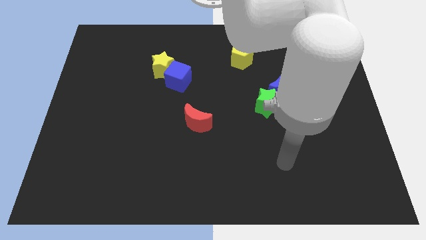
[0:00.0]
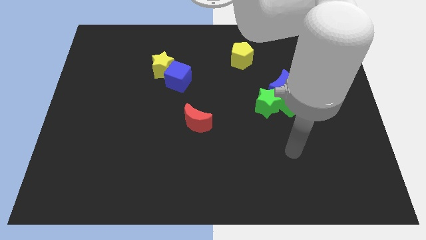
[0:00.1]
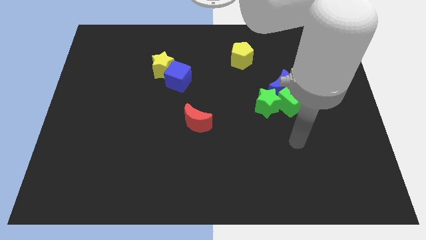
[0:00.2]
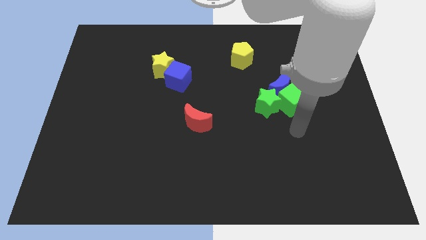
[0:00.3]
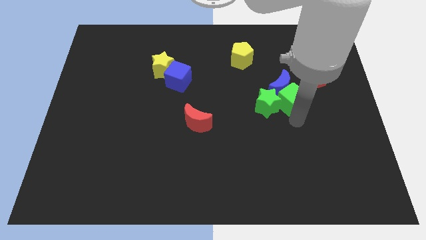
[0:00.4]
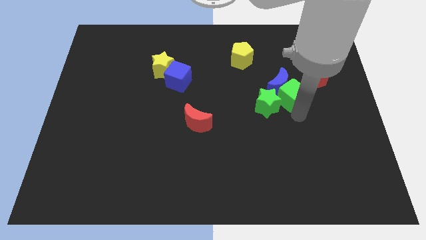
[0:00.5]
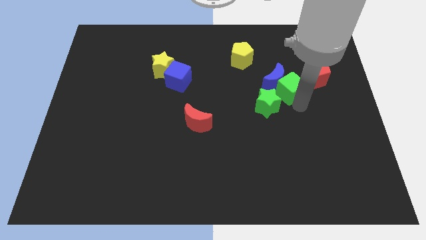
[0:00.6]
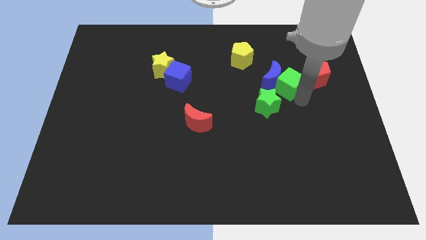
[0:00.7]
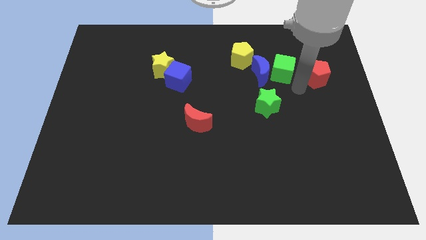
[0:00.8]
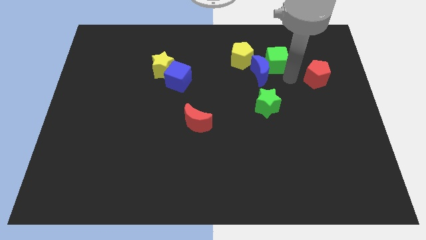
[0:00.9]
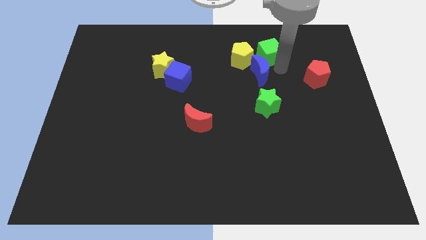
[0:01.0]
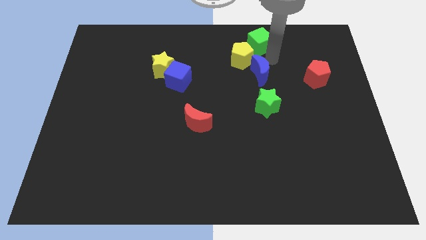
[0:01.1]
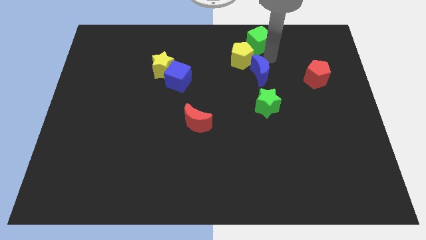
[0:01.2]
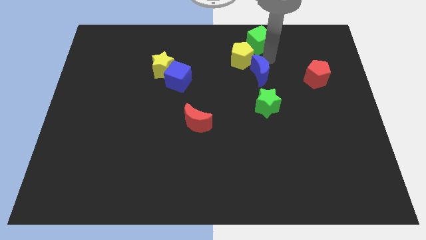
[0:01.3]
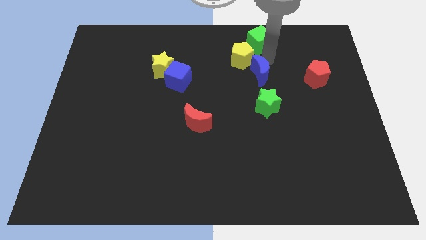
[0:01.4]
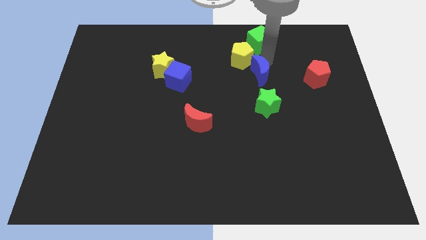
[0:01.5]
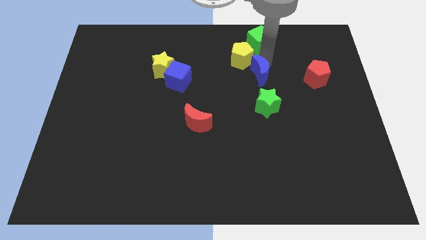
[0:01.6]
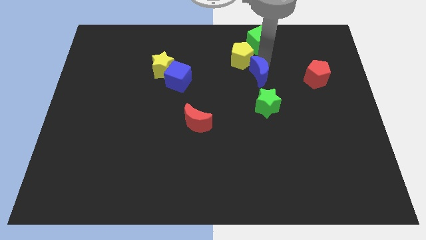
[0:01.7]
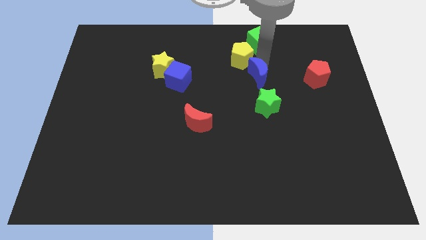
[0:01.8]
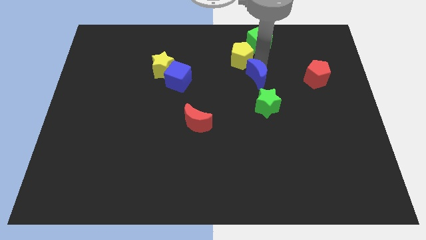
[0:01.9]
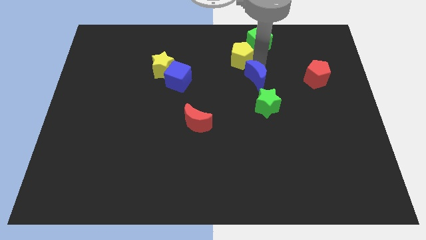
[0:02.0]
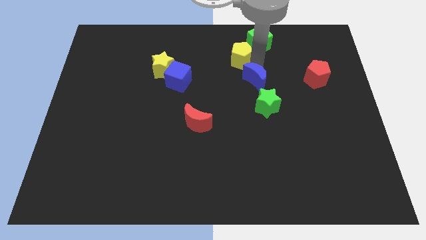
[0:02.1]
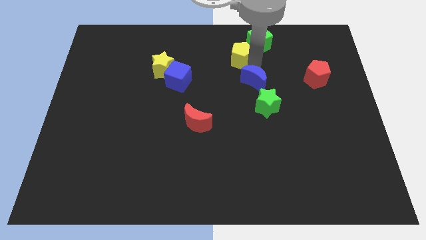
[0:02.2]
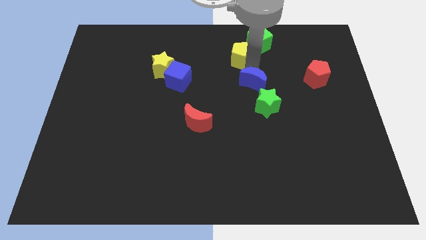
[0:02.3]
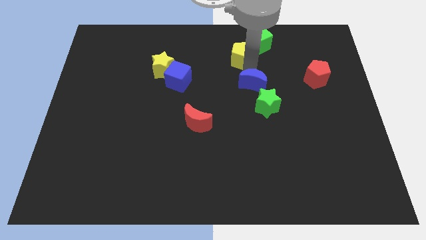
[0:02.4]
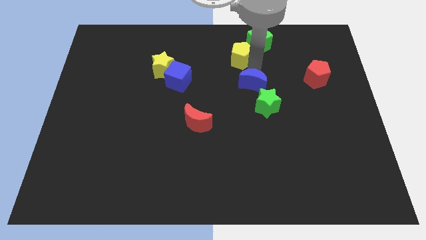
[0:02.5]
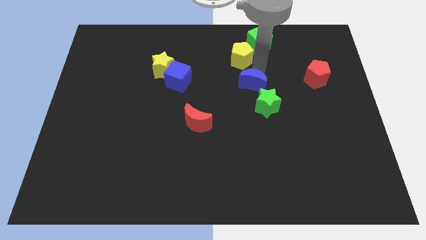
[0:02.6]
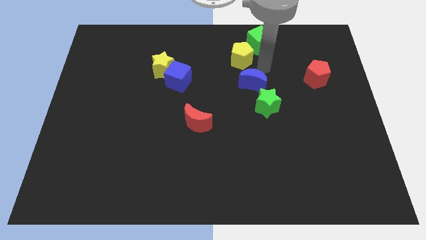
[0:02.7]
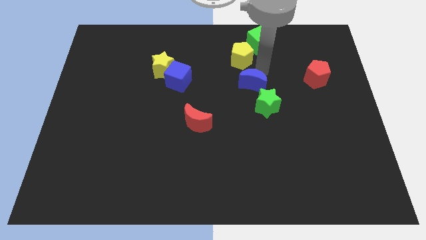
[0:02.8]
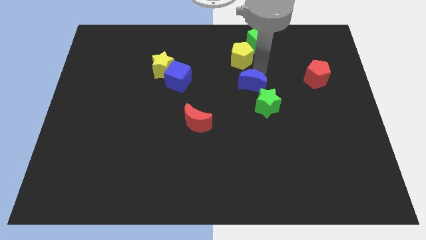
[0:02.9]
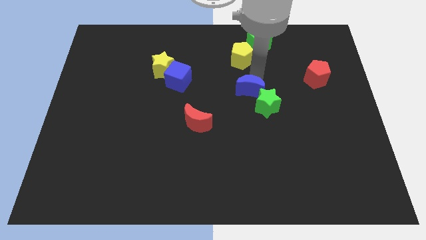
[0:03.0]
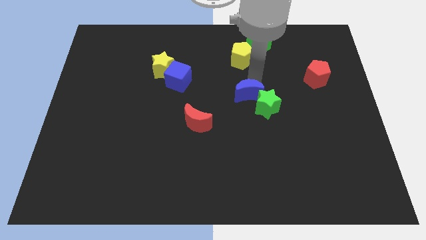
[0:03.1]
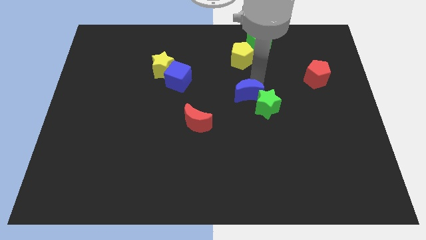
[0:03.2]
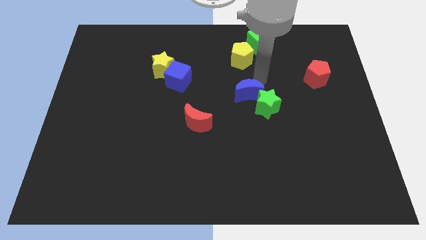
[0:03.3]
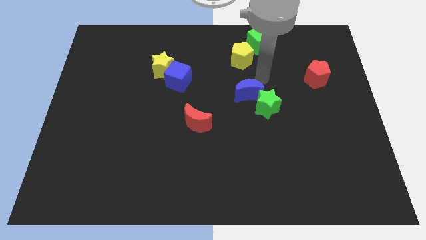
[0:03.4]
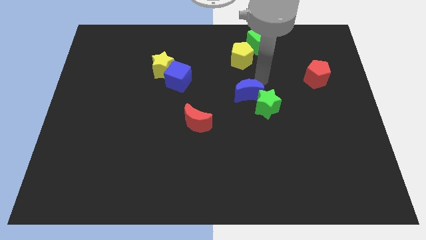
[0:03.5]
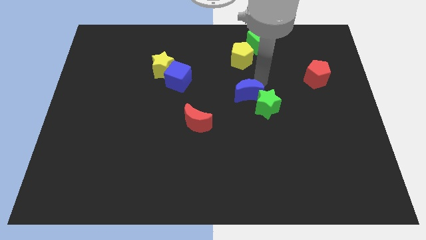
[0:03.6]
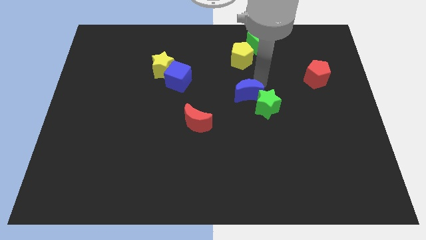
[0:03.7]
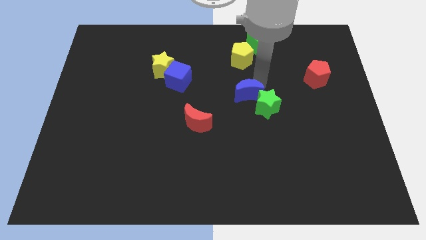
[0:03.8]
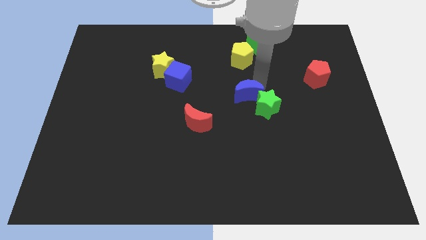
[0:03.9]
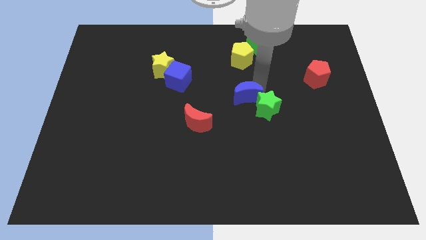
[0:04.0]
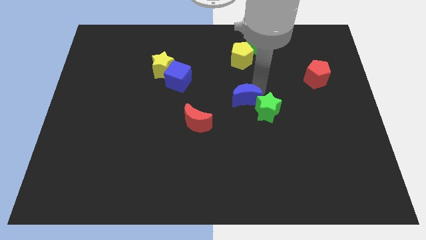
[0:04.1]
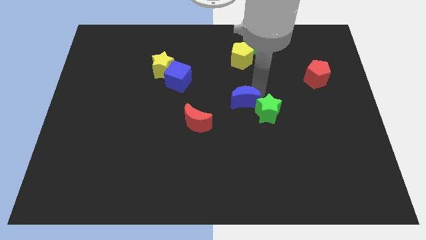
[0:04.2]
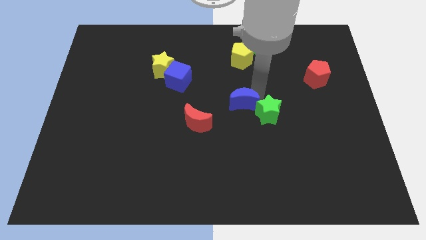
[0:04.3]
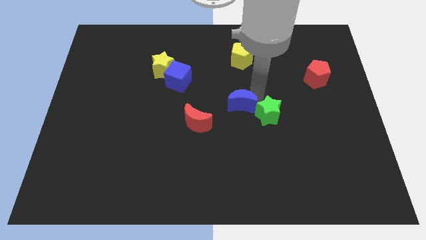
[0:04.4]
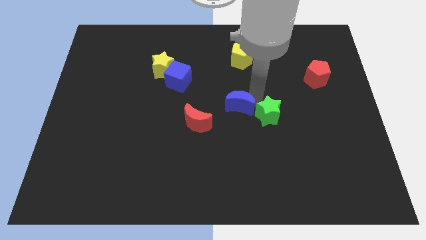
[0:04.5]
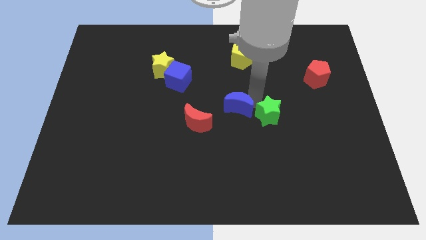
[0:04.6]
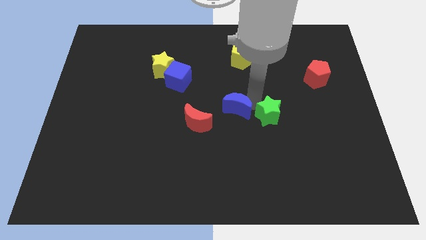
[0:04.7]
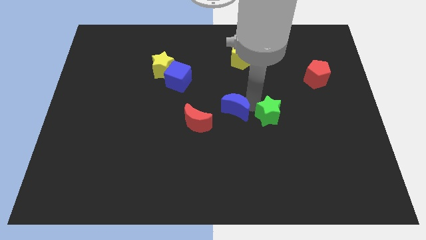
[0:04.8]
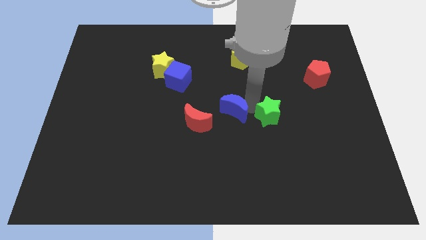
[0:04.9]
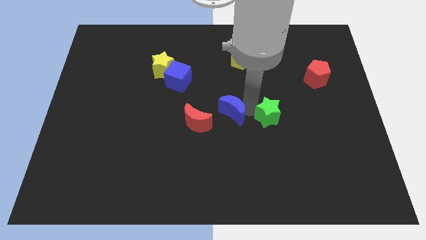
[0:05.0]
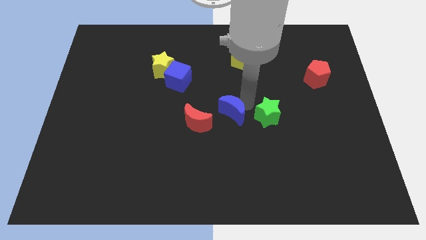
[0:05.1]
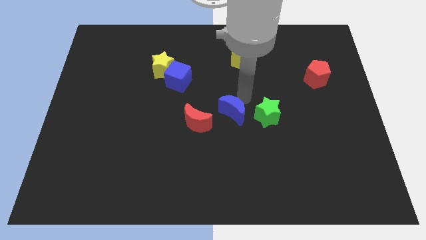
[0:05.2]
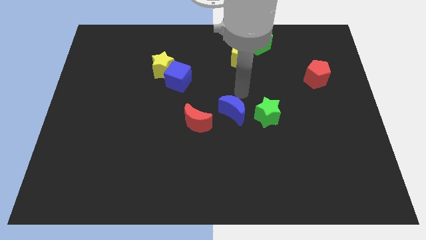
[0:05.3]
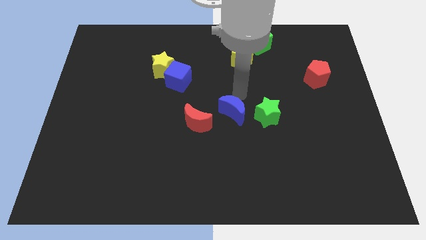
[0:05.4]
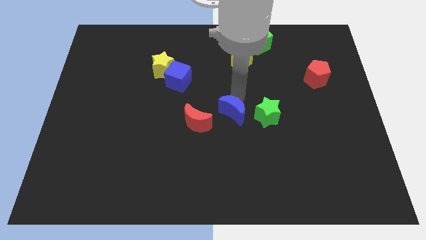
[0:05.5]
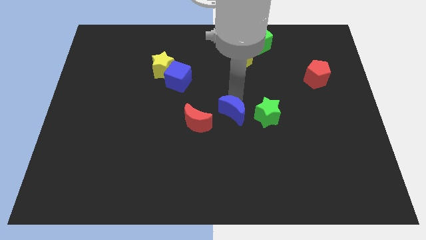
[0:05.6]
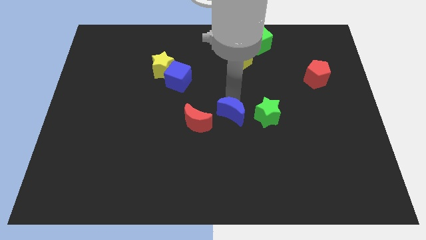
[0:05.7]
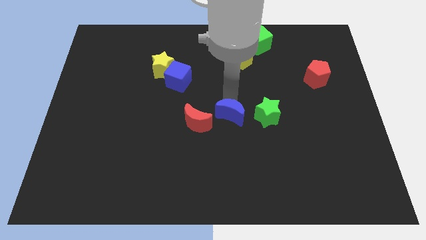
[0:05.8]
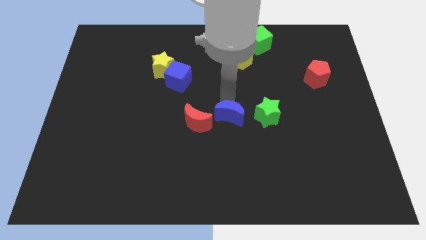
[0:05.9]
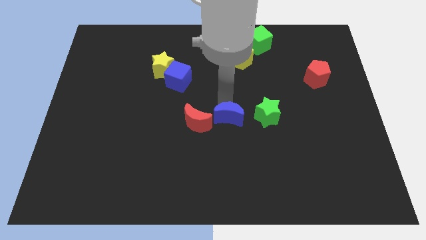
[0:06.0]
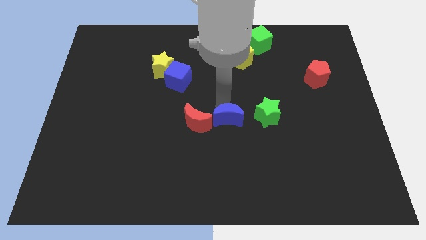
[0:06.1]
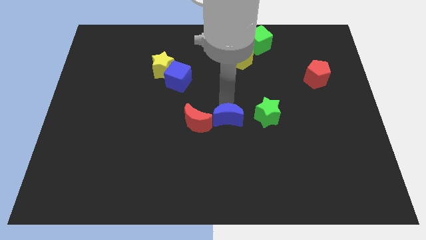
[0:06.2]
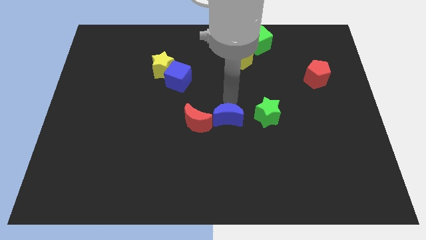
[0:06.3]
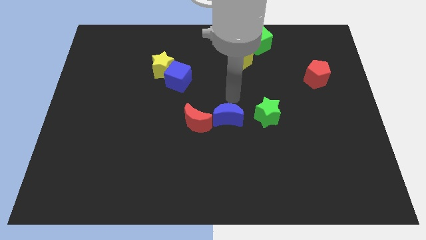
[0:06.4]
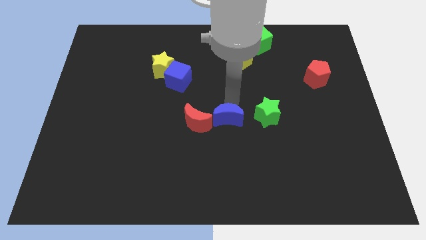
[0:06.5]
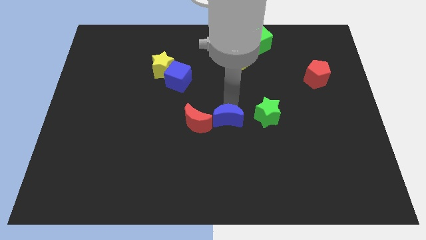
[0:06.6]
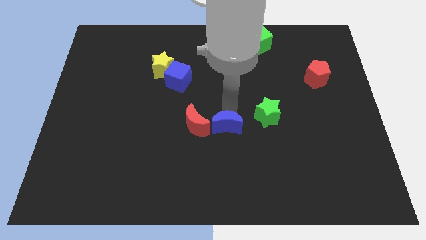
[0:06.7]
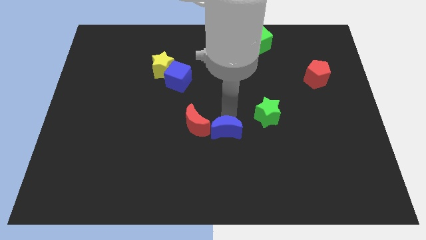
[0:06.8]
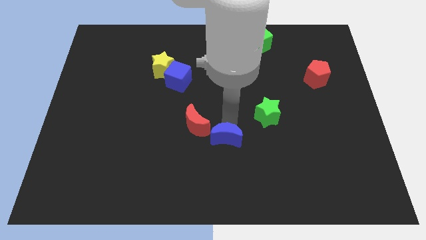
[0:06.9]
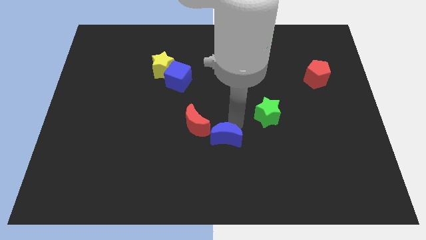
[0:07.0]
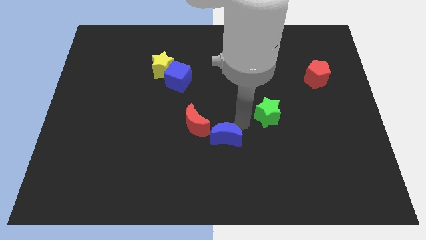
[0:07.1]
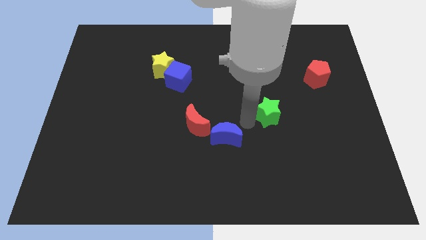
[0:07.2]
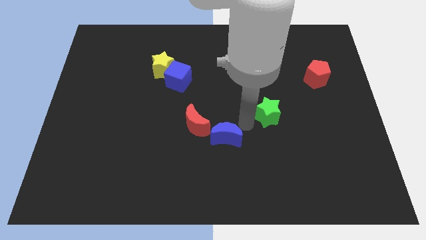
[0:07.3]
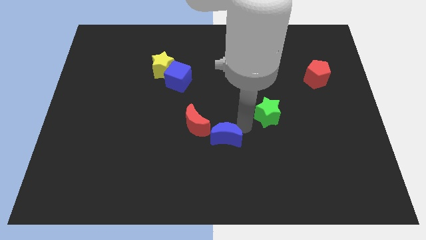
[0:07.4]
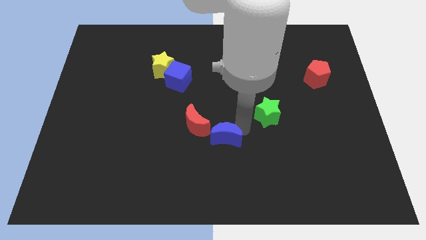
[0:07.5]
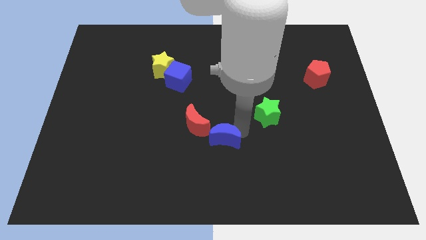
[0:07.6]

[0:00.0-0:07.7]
push the blue moon downwards and left

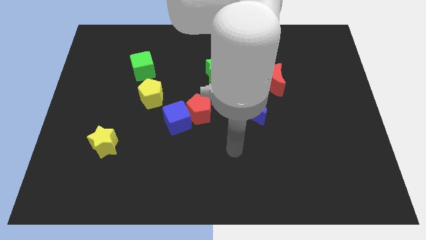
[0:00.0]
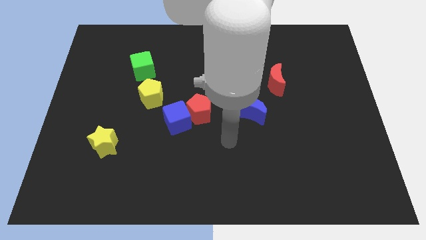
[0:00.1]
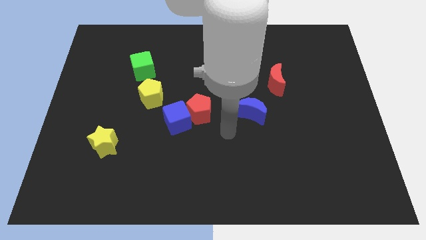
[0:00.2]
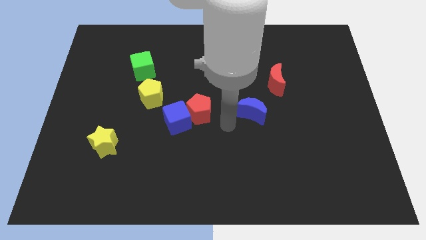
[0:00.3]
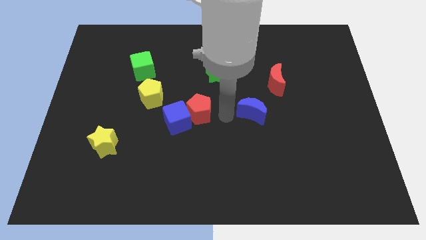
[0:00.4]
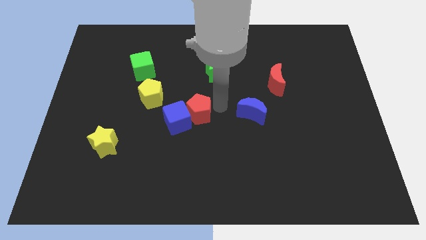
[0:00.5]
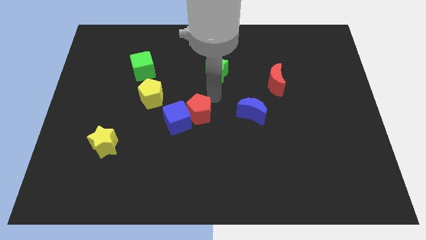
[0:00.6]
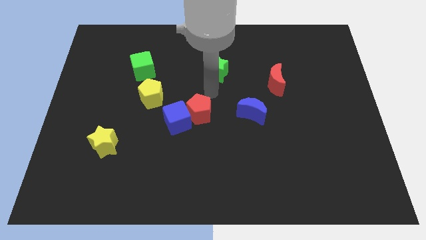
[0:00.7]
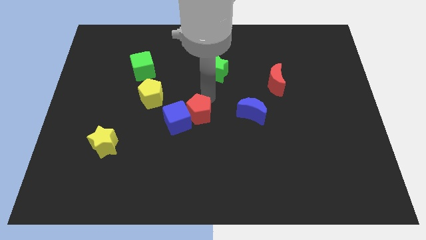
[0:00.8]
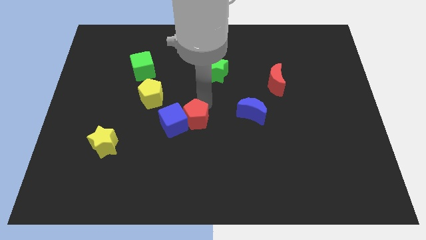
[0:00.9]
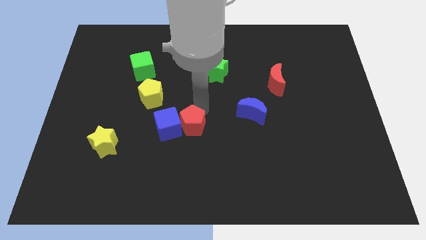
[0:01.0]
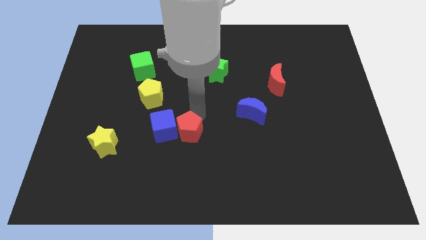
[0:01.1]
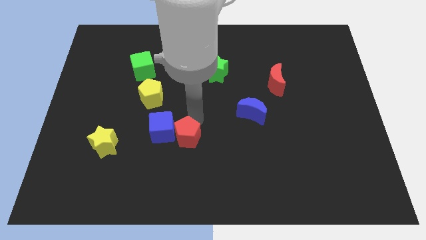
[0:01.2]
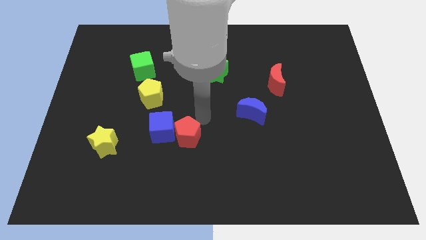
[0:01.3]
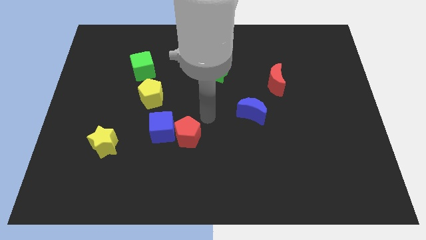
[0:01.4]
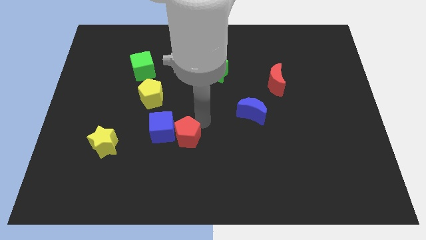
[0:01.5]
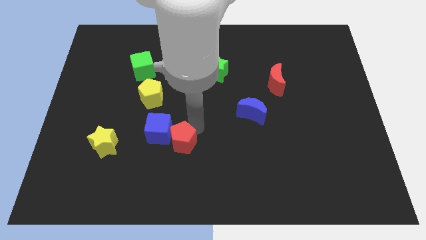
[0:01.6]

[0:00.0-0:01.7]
push the red pentagon downwards and to the left diagonally a little
